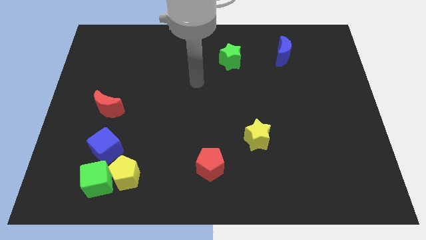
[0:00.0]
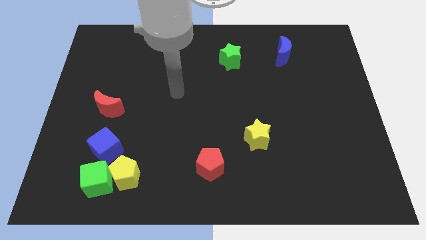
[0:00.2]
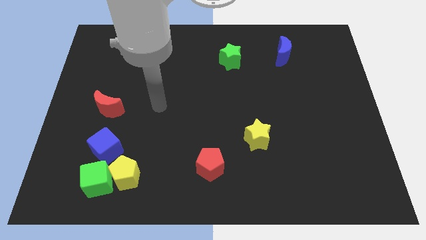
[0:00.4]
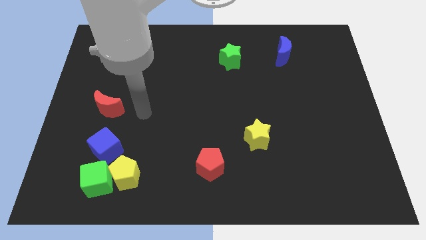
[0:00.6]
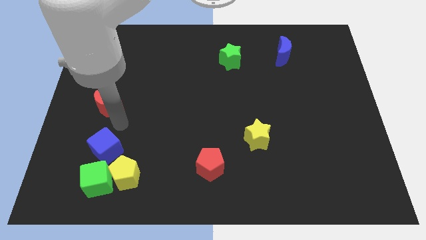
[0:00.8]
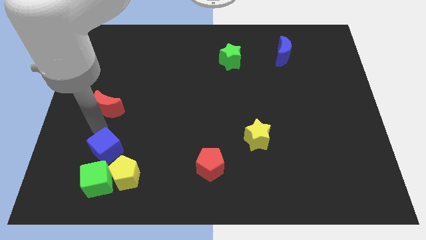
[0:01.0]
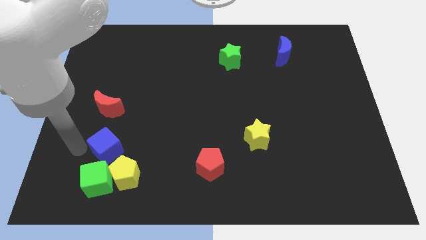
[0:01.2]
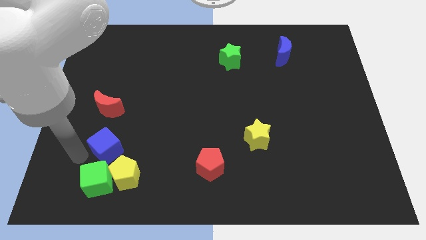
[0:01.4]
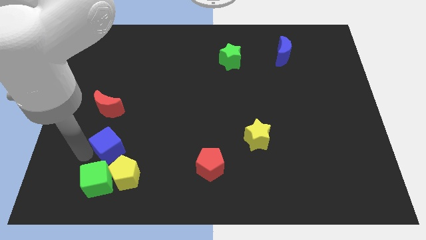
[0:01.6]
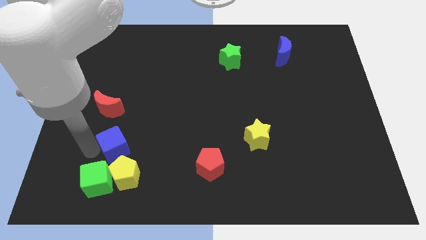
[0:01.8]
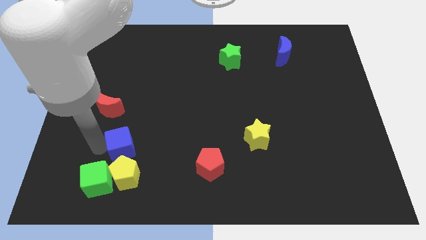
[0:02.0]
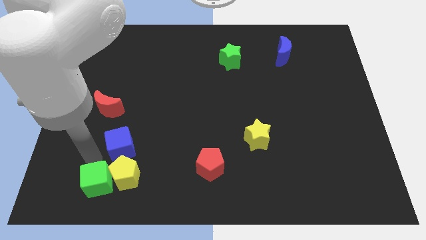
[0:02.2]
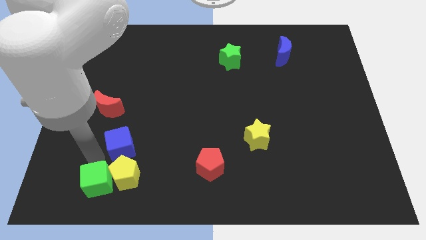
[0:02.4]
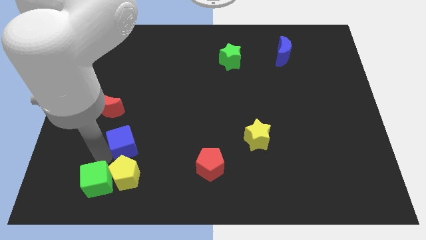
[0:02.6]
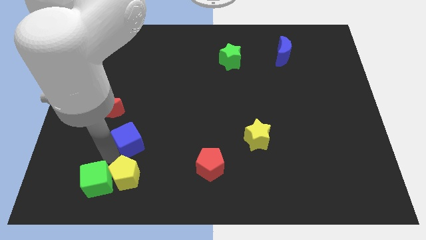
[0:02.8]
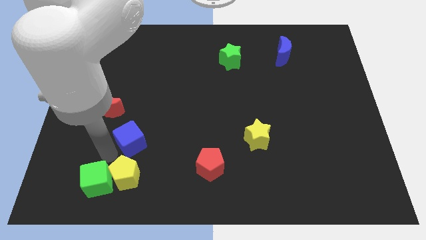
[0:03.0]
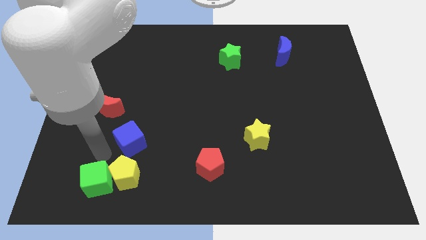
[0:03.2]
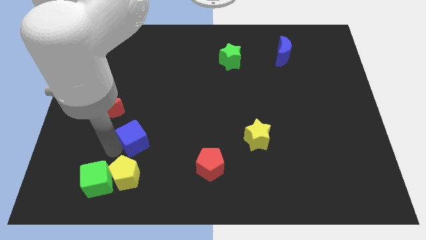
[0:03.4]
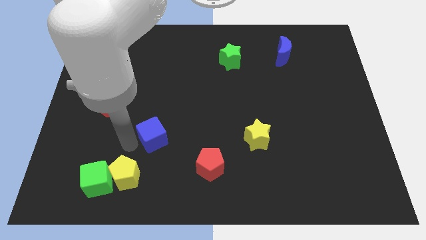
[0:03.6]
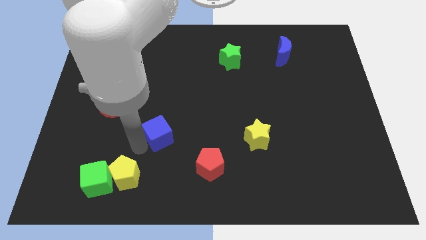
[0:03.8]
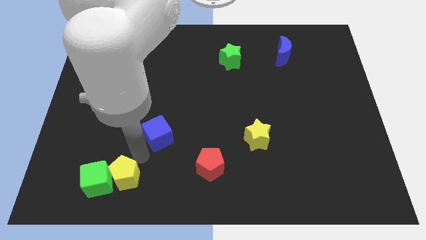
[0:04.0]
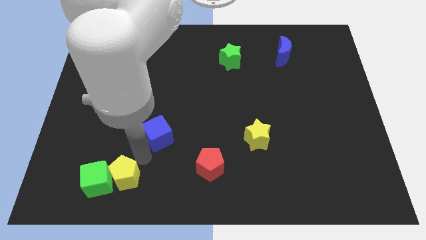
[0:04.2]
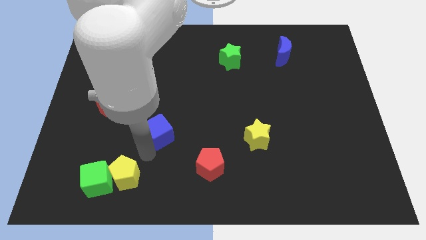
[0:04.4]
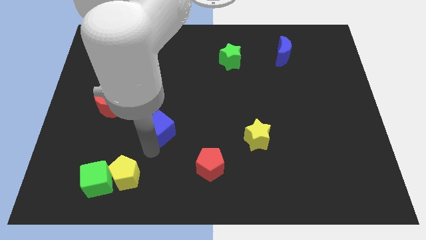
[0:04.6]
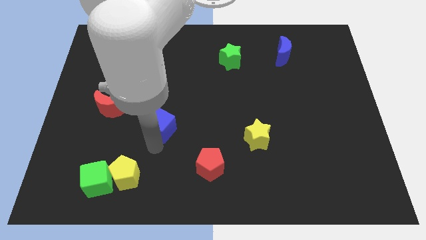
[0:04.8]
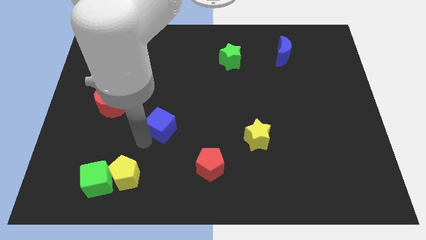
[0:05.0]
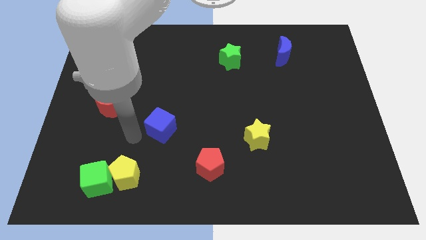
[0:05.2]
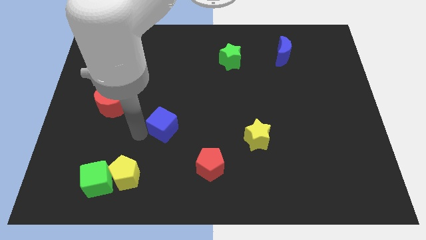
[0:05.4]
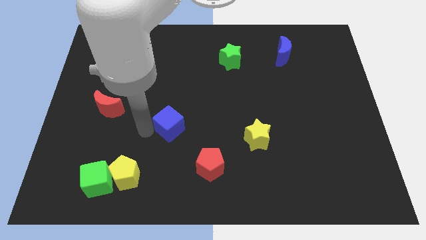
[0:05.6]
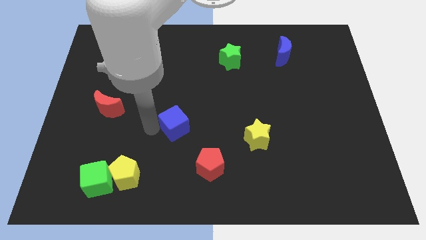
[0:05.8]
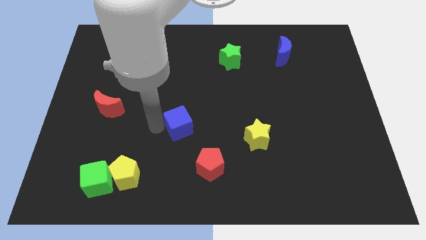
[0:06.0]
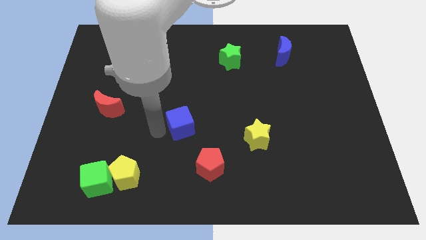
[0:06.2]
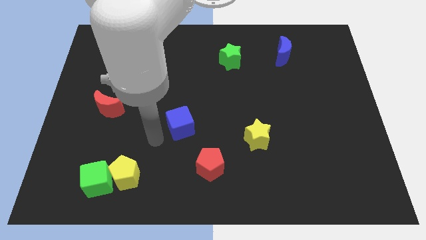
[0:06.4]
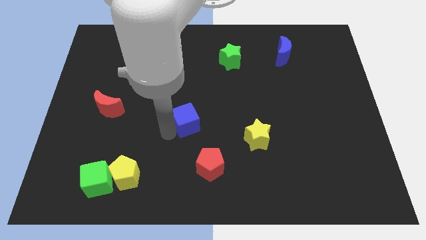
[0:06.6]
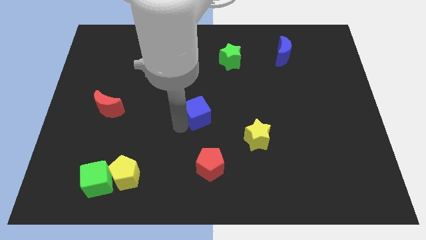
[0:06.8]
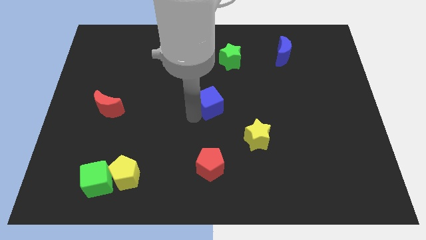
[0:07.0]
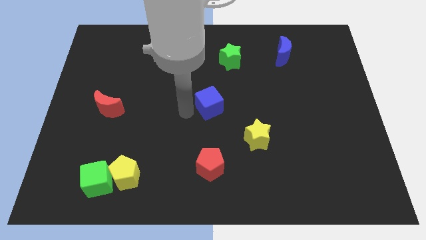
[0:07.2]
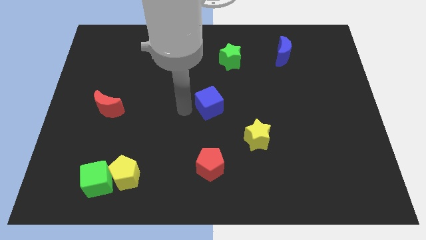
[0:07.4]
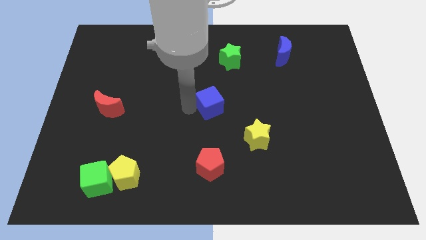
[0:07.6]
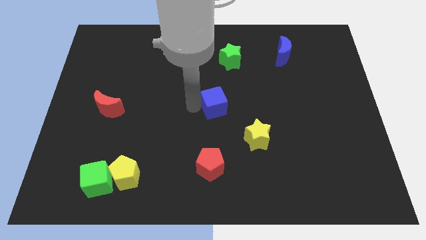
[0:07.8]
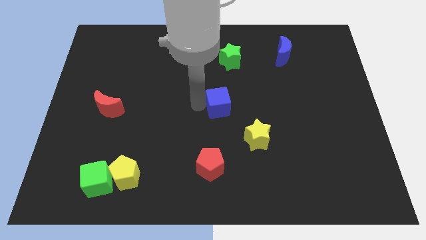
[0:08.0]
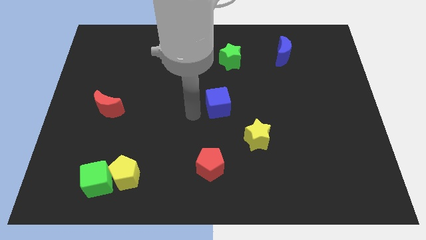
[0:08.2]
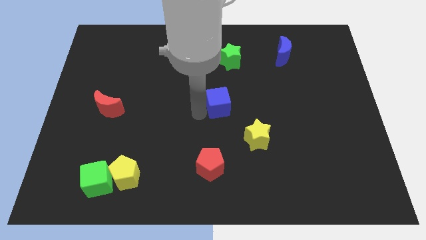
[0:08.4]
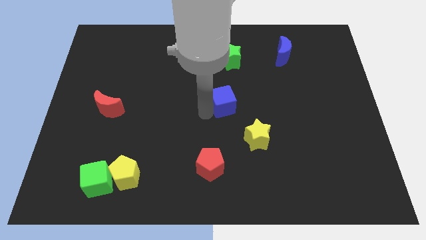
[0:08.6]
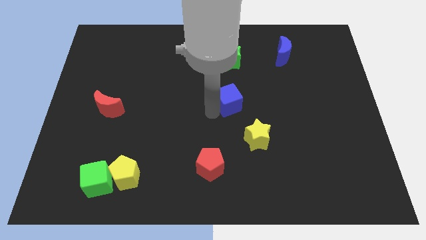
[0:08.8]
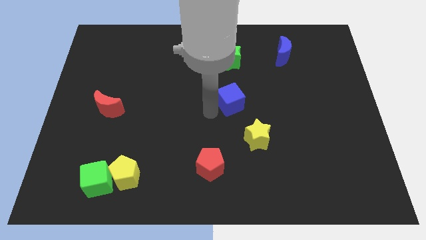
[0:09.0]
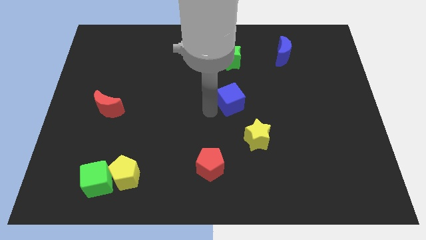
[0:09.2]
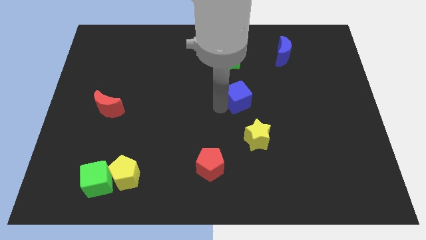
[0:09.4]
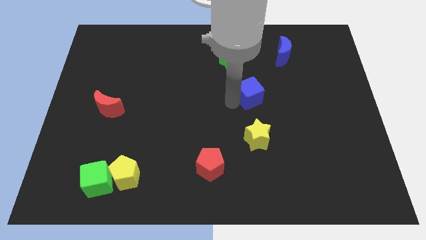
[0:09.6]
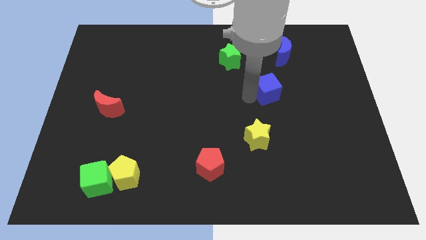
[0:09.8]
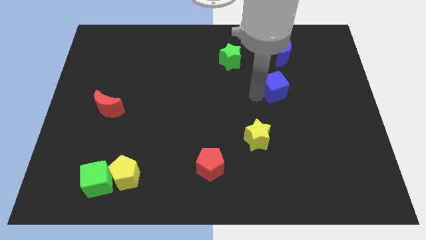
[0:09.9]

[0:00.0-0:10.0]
push the blue cube below the blue moon

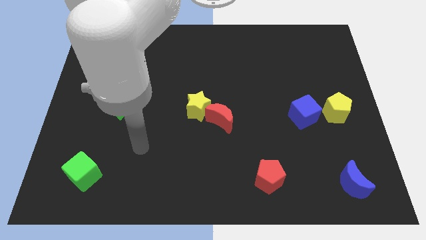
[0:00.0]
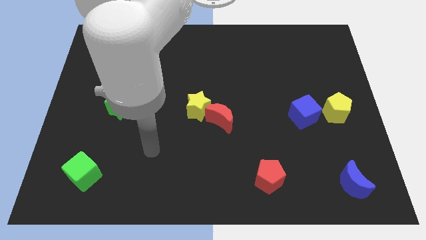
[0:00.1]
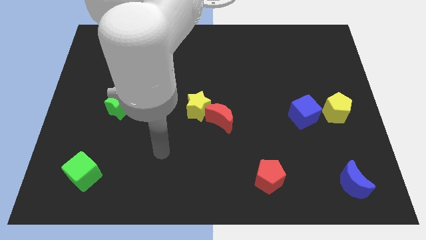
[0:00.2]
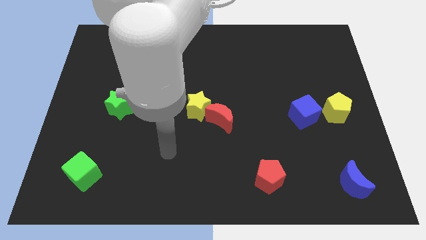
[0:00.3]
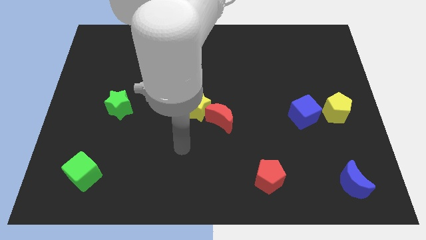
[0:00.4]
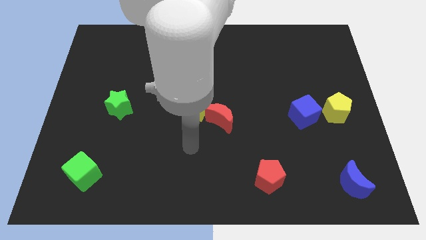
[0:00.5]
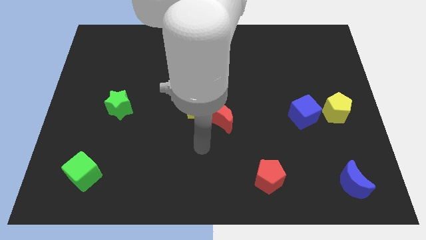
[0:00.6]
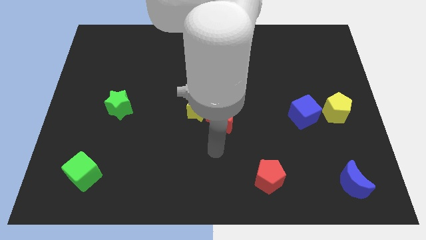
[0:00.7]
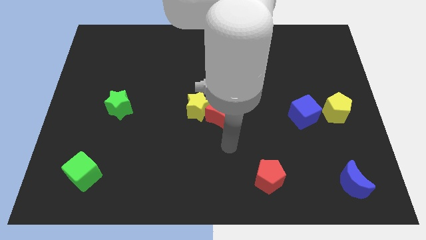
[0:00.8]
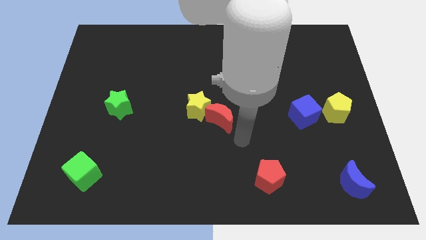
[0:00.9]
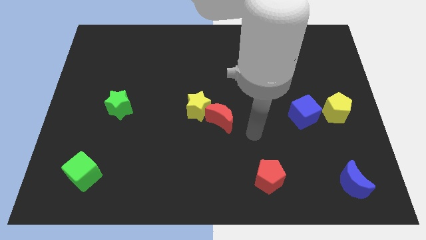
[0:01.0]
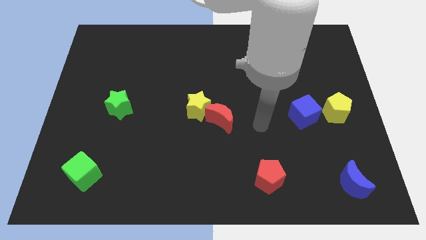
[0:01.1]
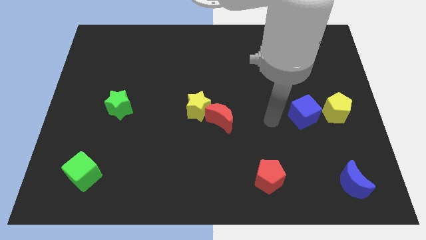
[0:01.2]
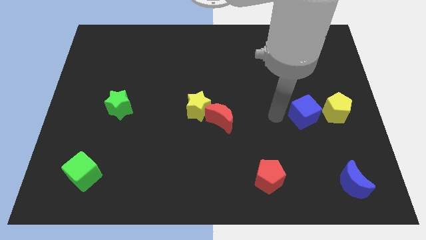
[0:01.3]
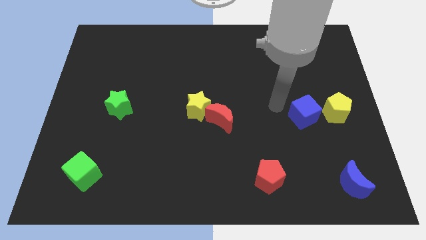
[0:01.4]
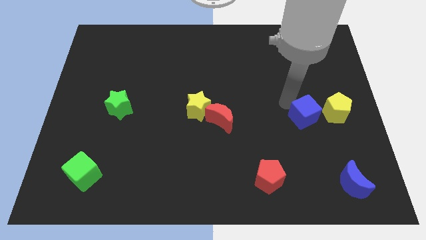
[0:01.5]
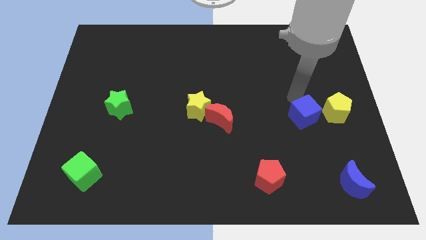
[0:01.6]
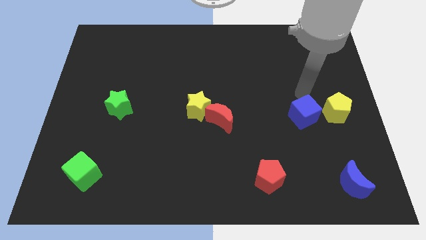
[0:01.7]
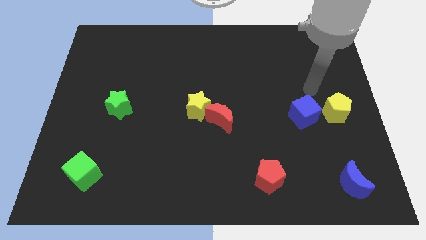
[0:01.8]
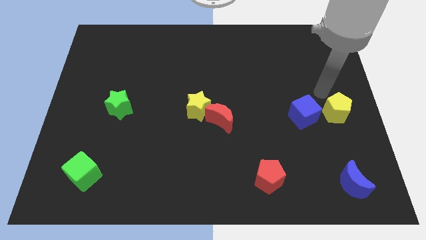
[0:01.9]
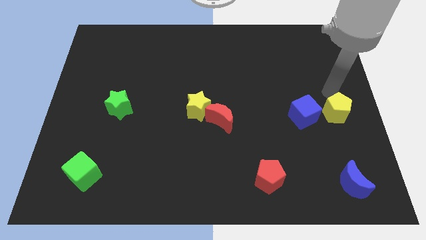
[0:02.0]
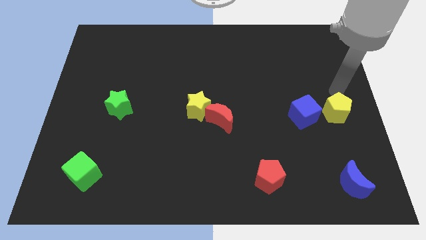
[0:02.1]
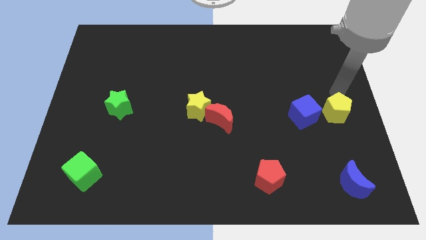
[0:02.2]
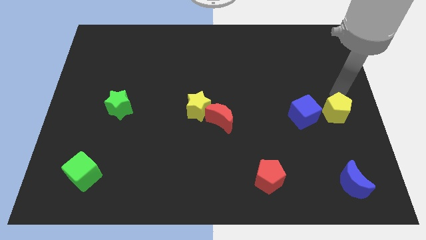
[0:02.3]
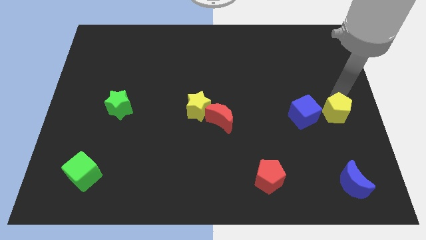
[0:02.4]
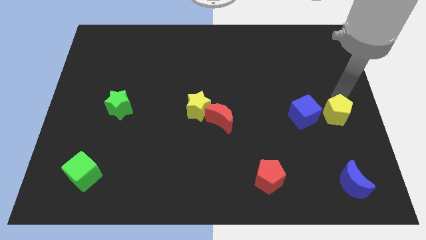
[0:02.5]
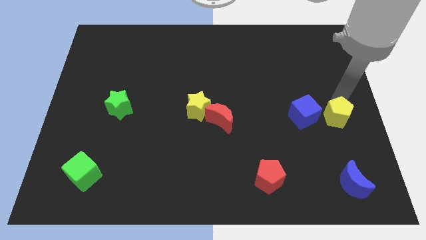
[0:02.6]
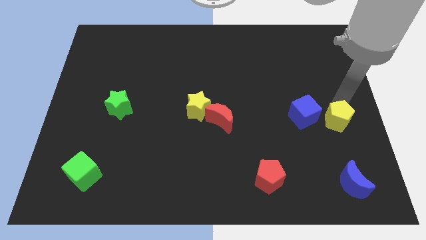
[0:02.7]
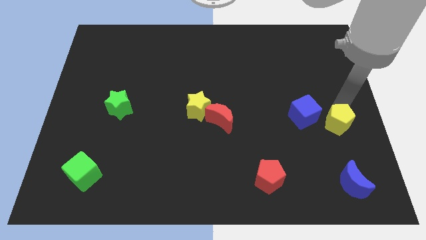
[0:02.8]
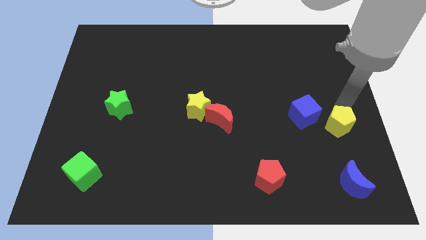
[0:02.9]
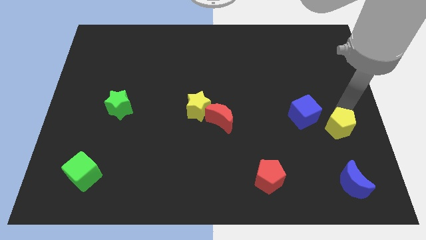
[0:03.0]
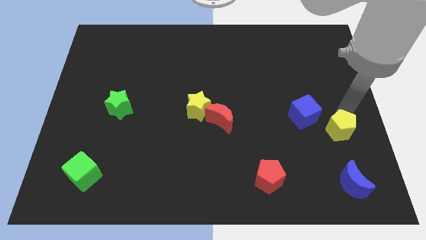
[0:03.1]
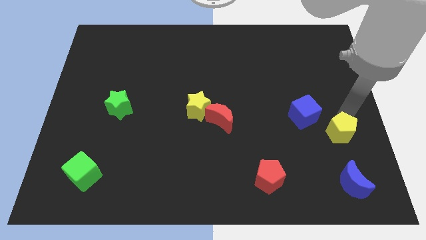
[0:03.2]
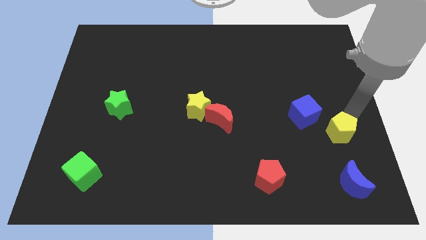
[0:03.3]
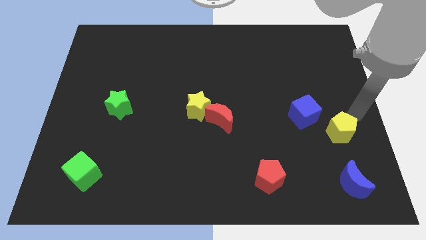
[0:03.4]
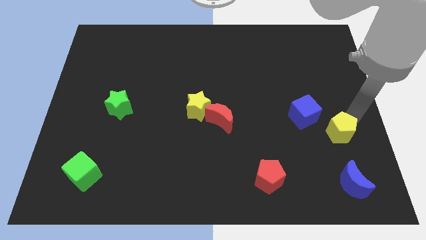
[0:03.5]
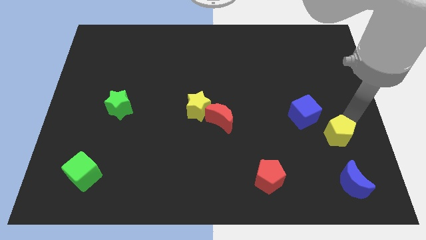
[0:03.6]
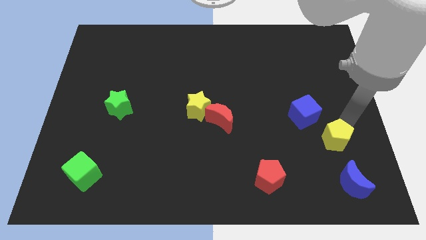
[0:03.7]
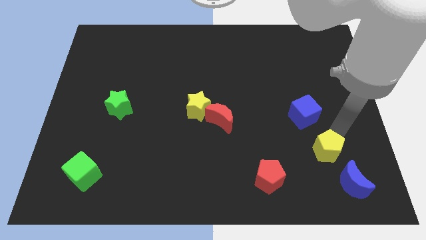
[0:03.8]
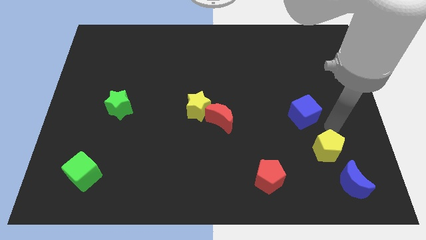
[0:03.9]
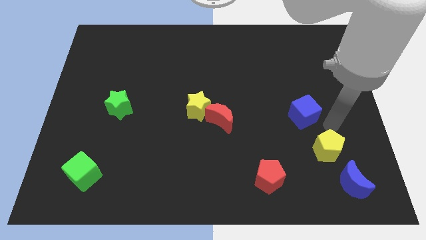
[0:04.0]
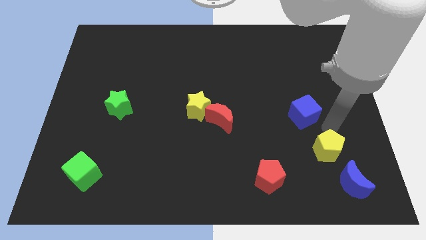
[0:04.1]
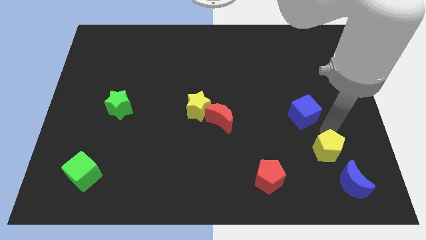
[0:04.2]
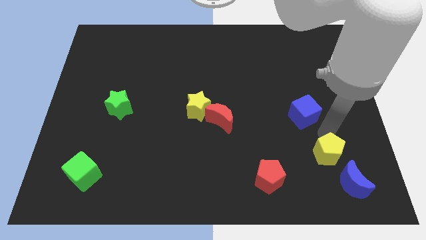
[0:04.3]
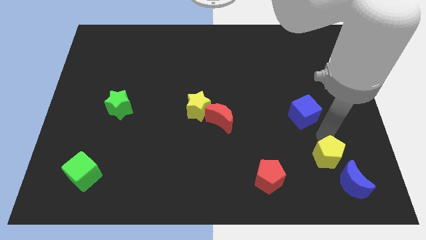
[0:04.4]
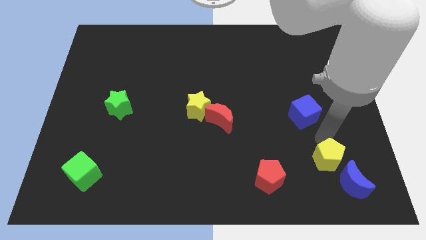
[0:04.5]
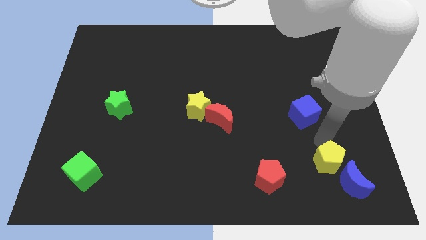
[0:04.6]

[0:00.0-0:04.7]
put the yellow pentagon to the right side of the red pentagon
